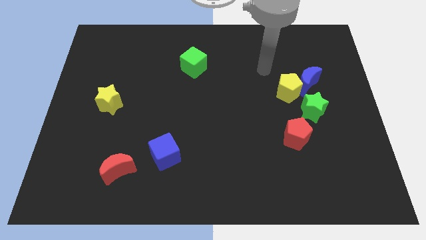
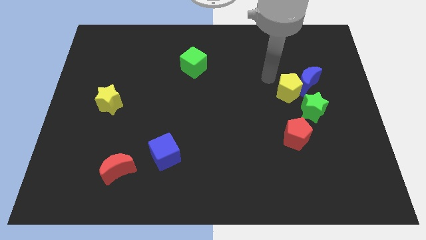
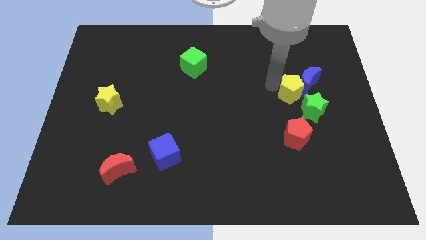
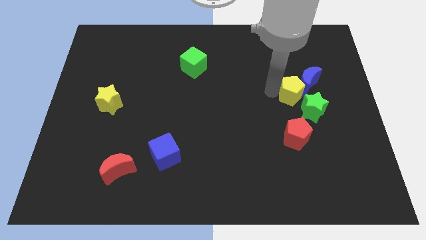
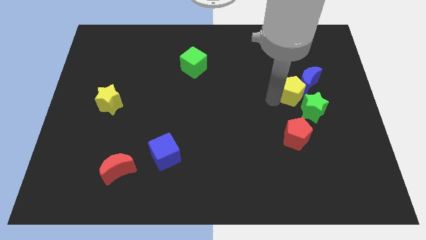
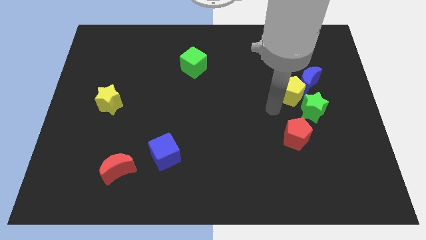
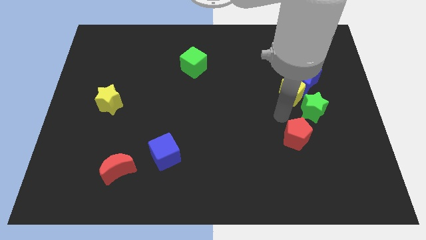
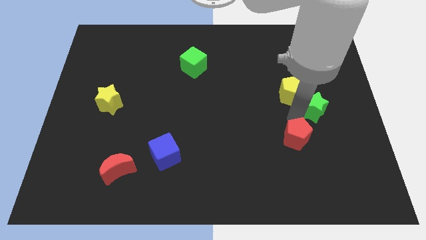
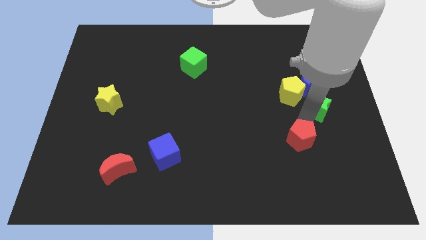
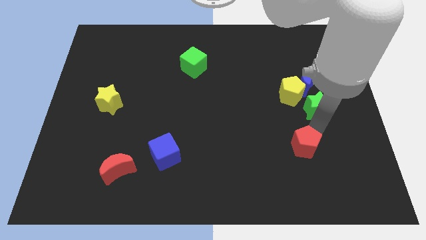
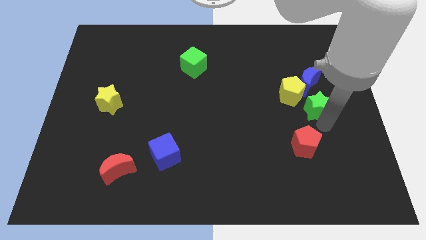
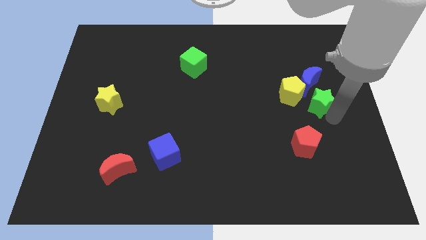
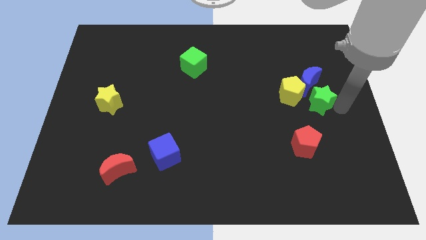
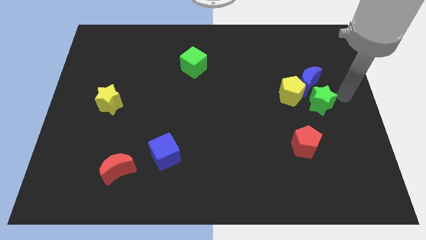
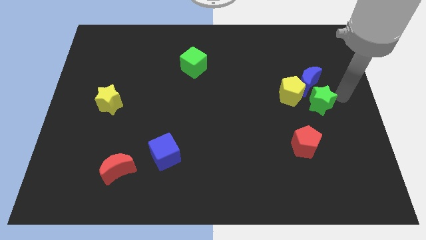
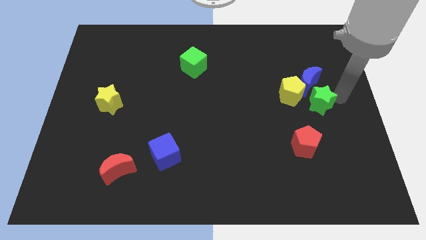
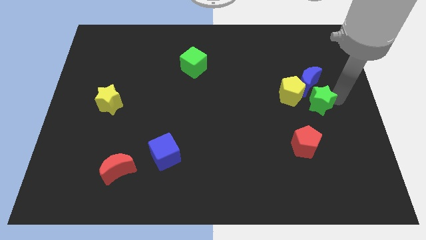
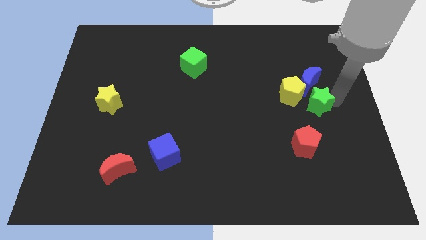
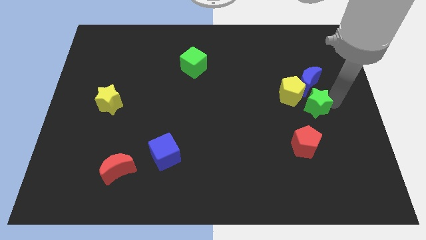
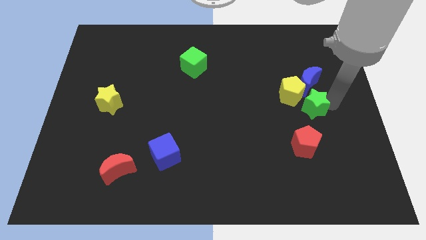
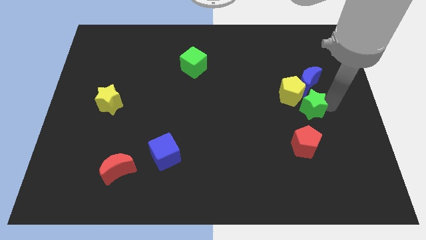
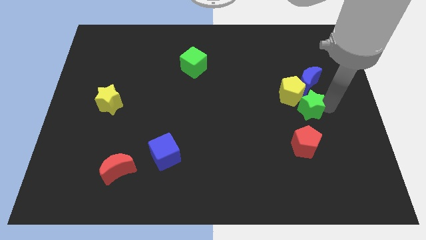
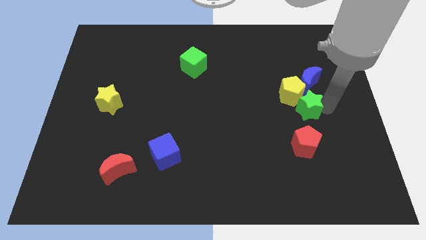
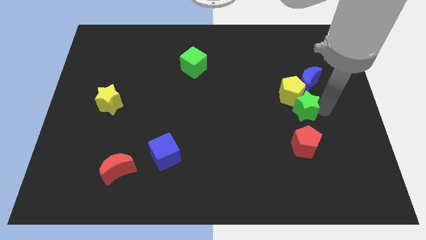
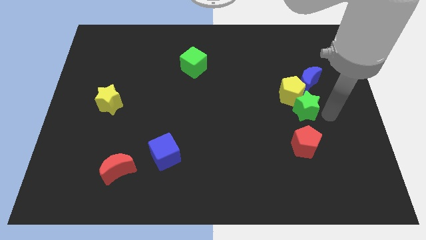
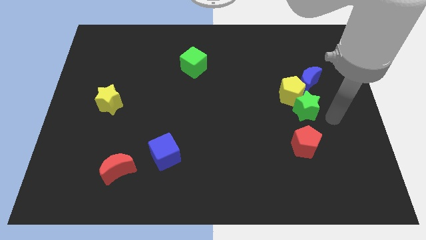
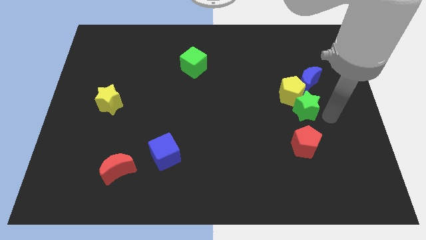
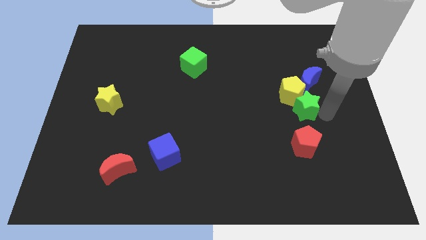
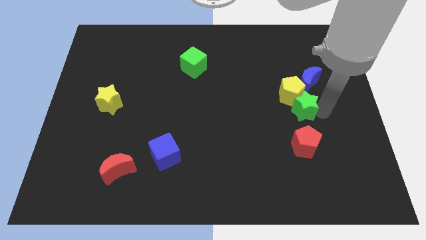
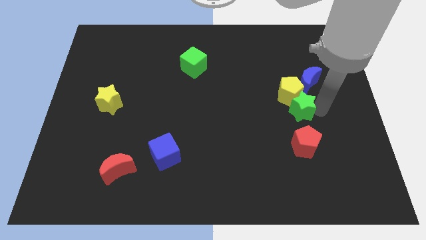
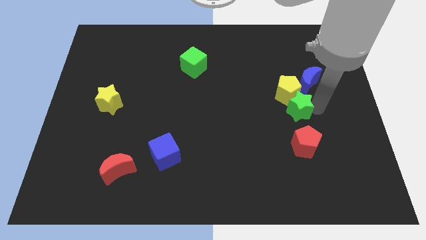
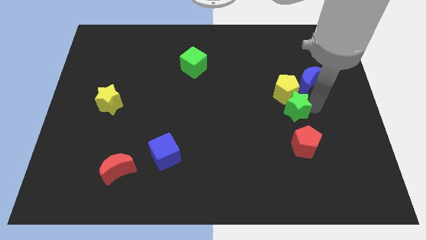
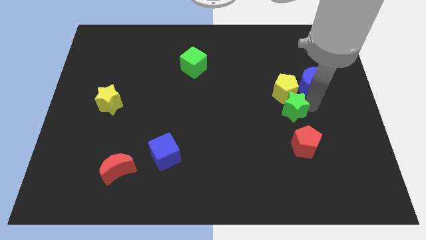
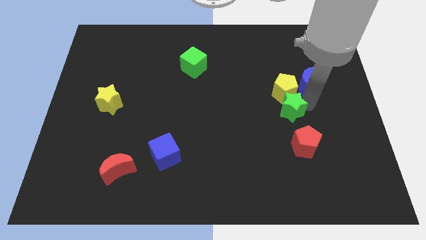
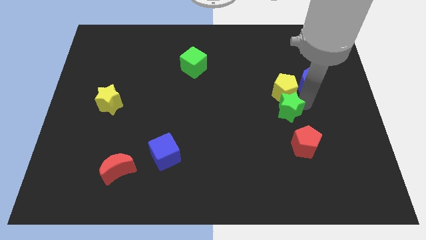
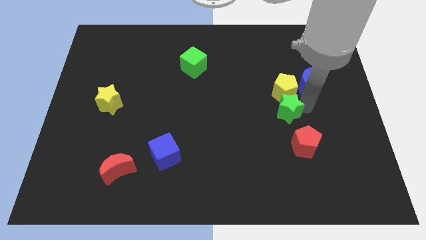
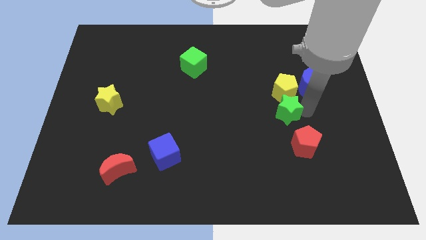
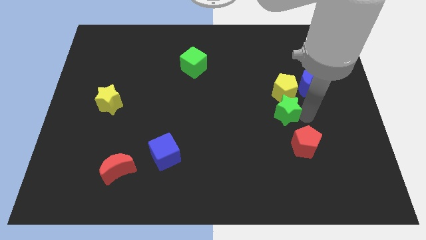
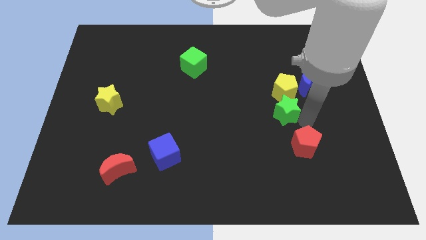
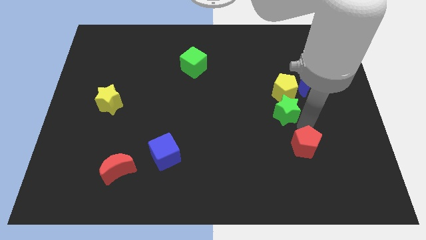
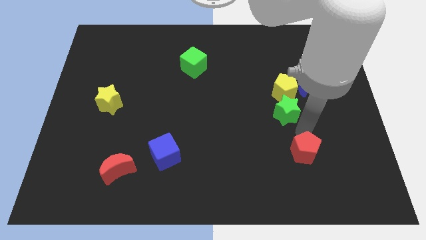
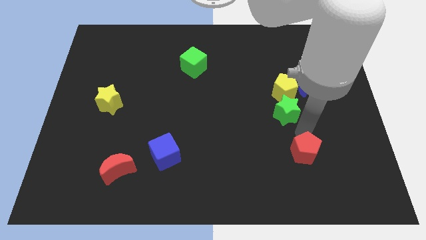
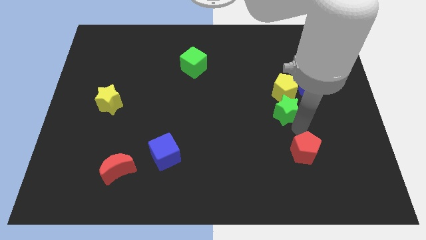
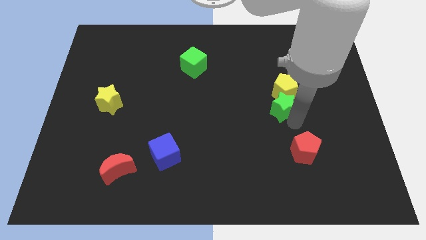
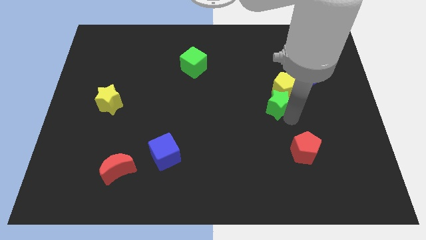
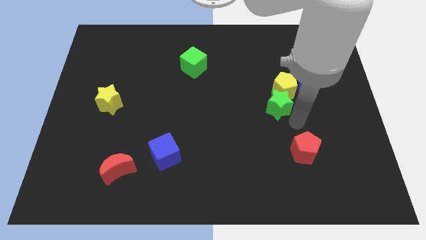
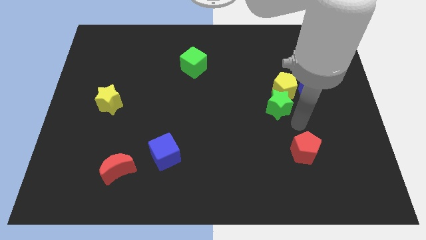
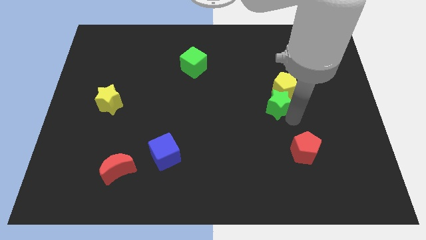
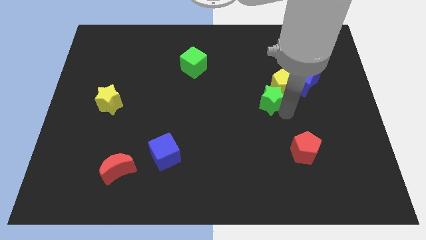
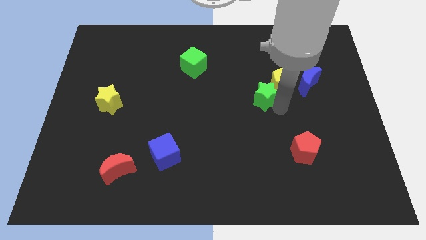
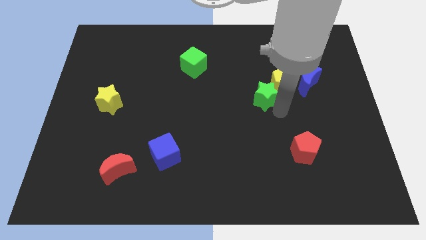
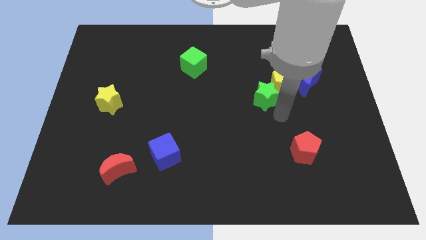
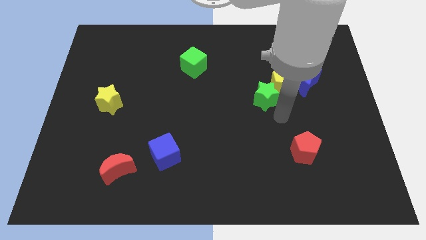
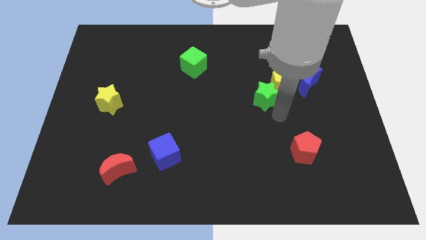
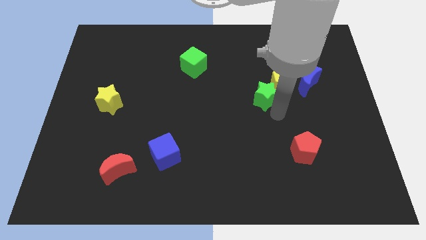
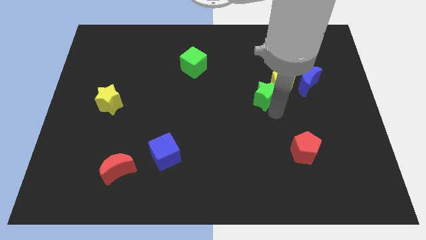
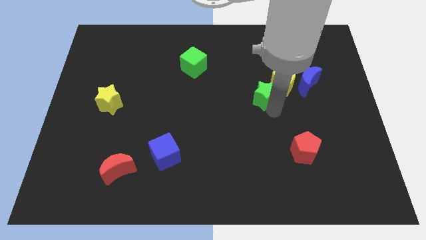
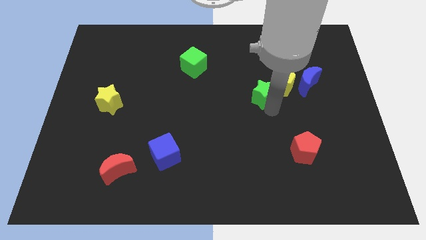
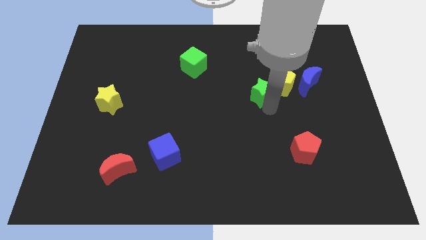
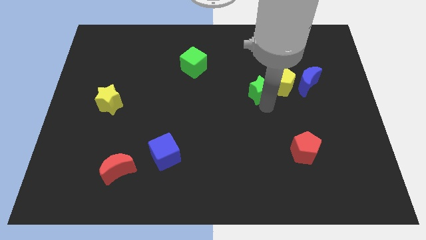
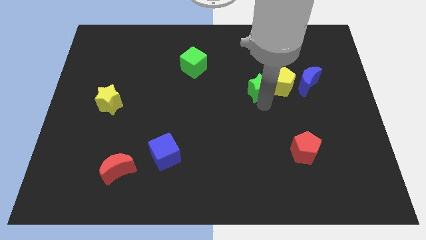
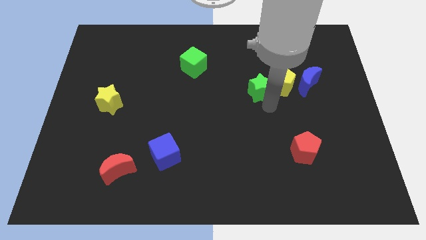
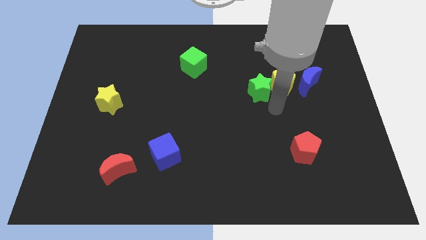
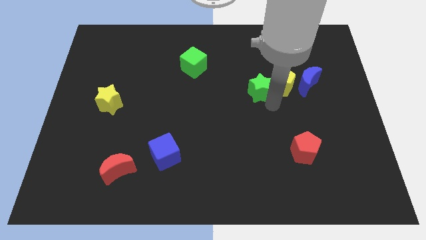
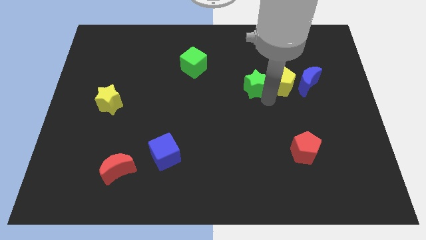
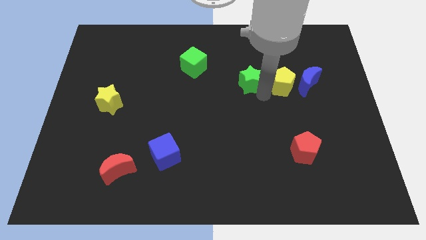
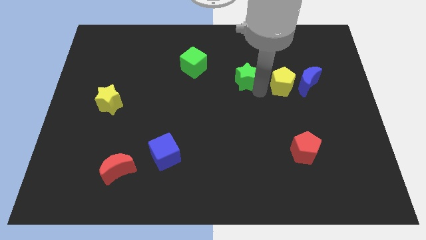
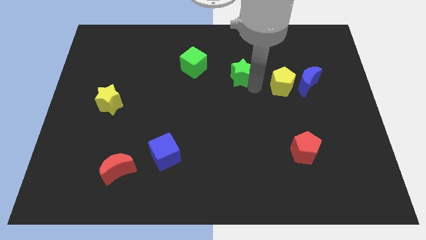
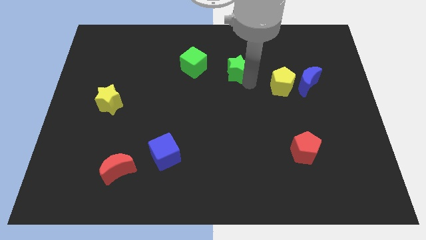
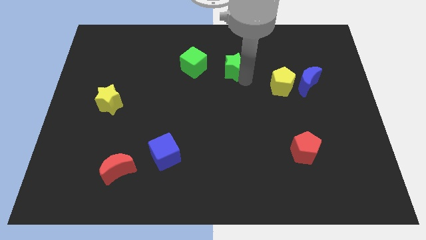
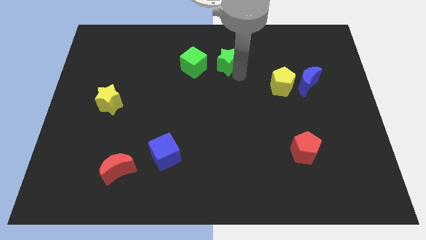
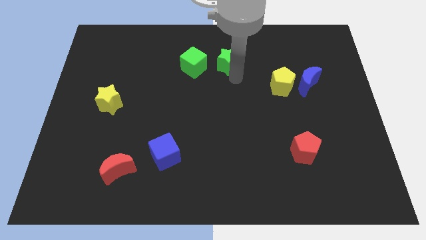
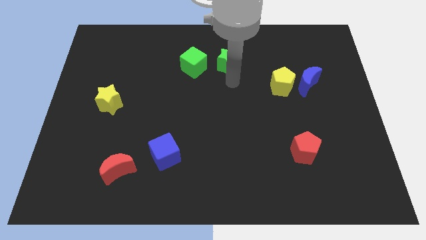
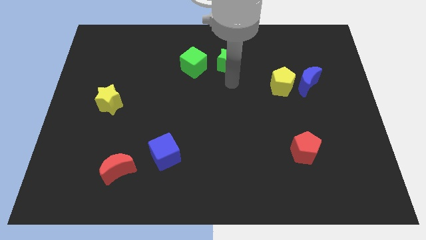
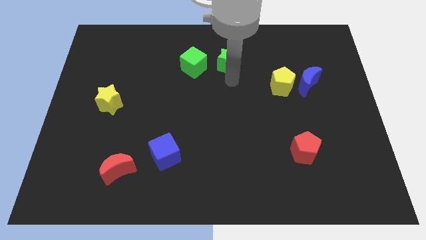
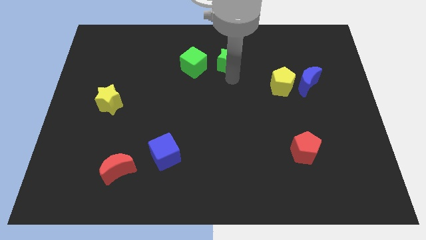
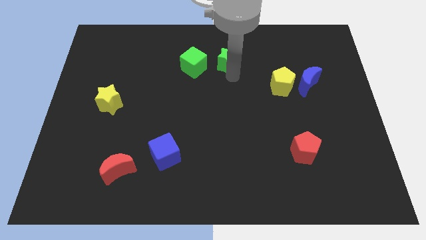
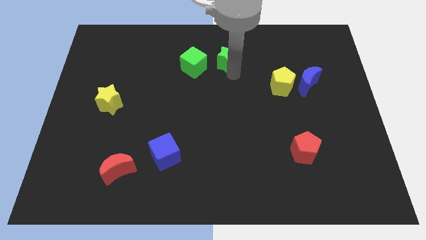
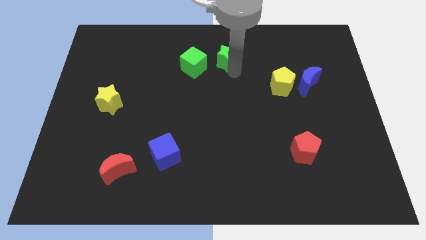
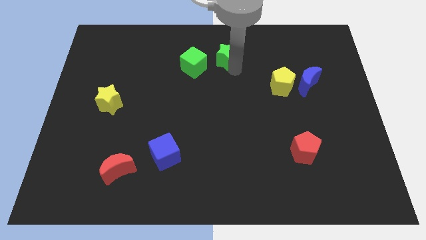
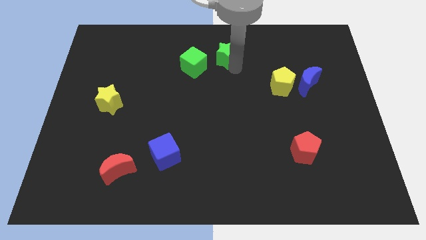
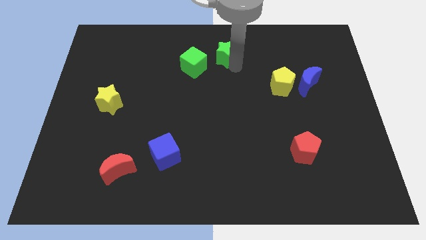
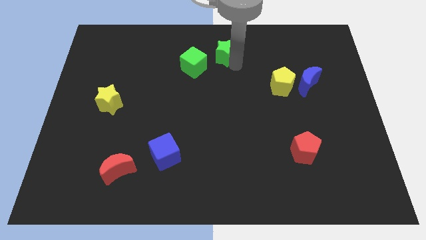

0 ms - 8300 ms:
push the green star to the towards your base
